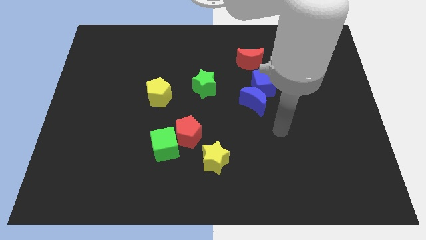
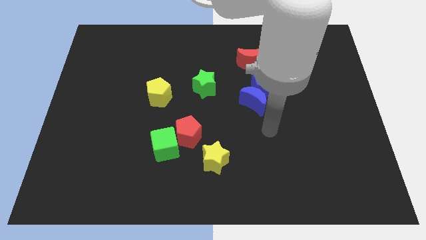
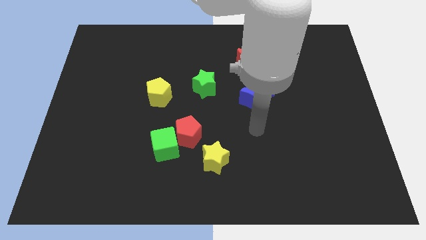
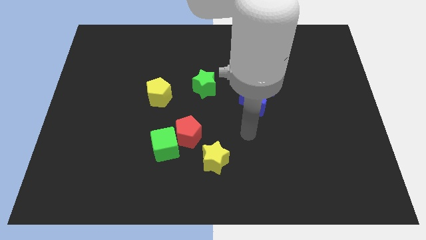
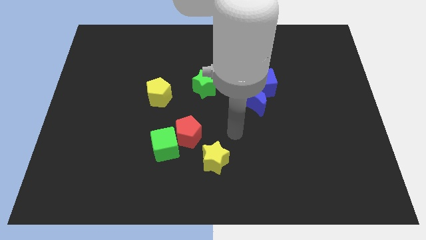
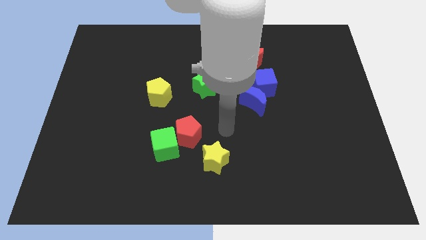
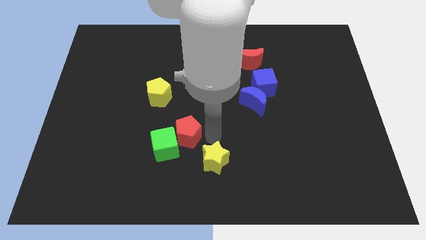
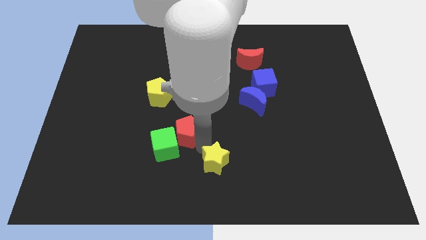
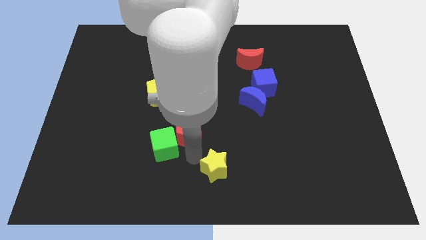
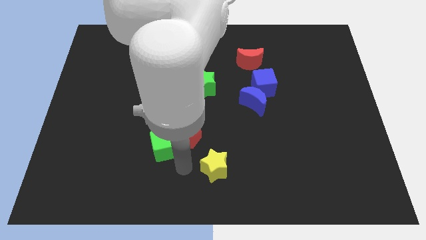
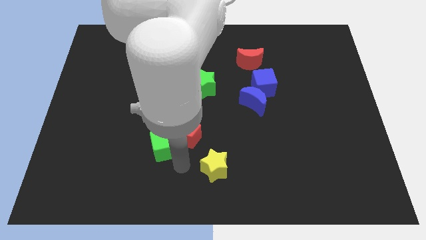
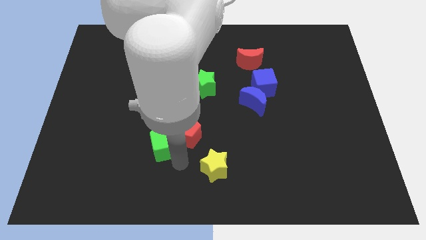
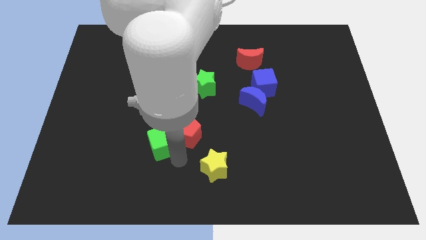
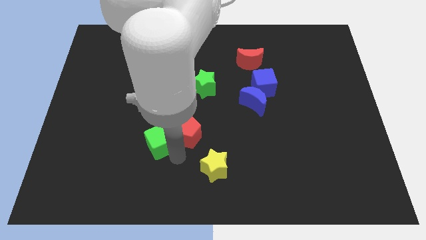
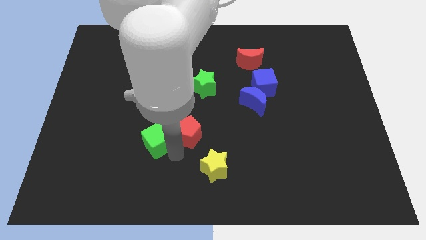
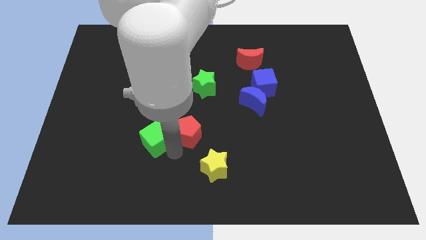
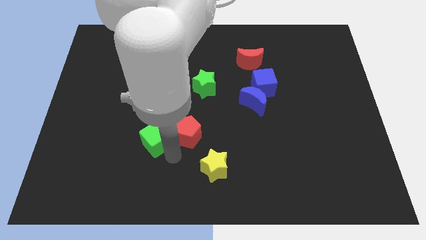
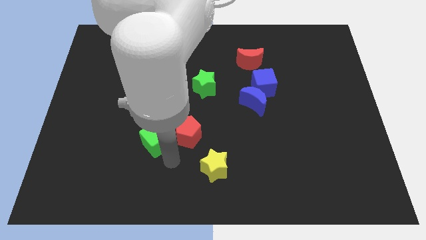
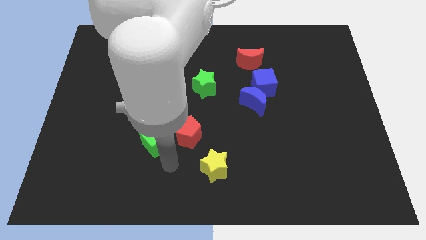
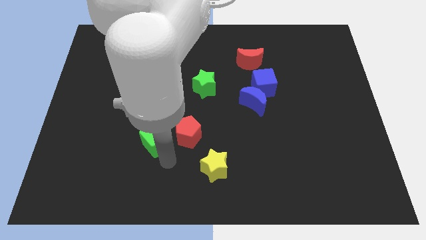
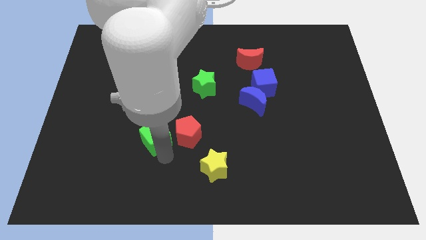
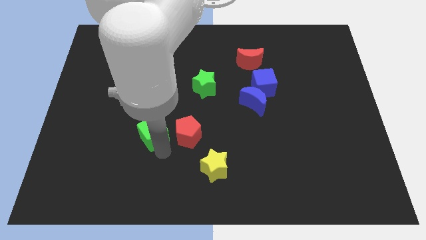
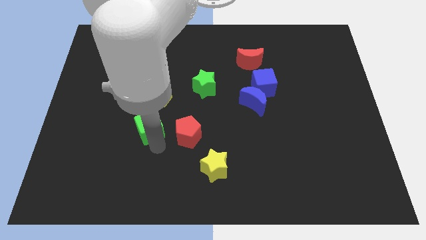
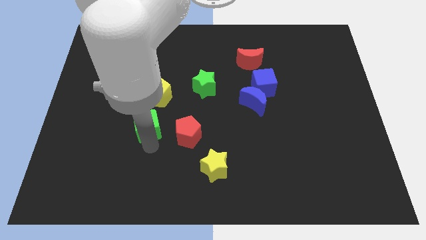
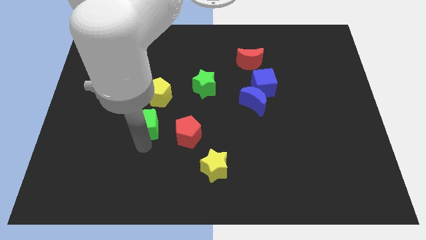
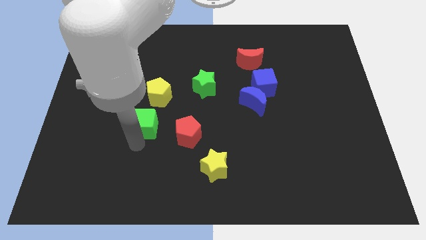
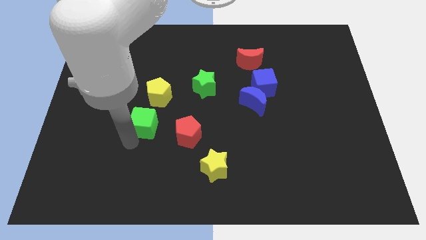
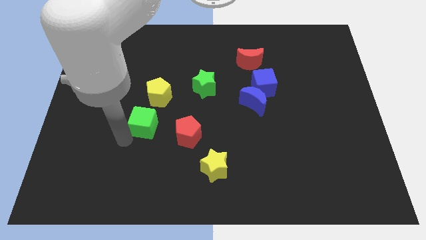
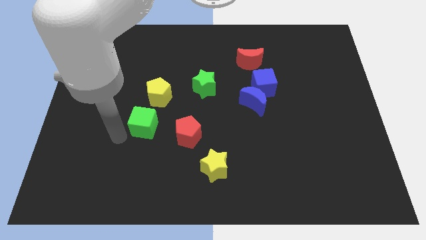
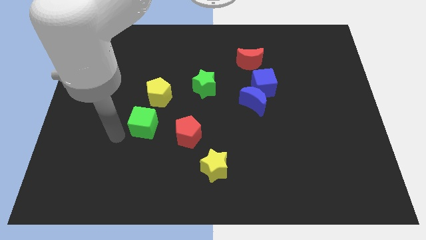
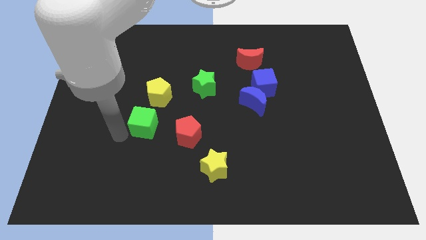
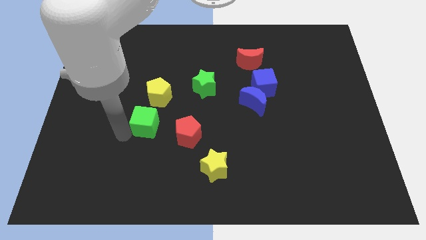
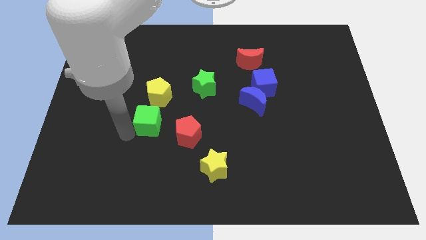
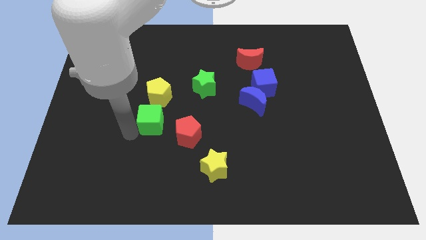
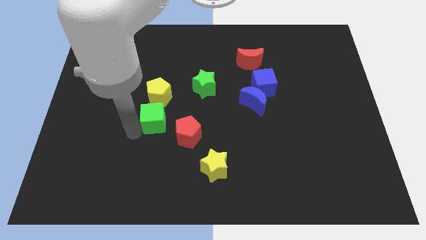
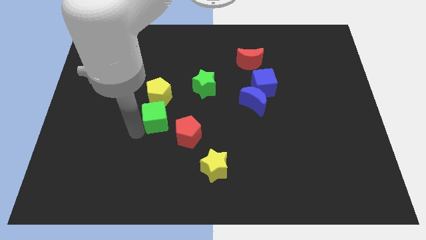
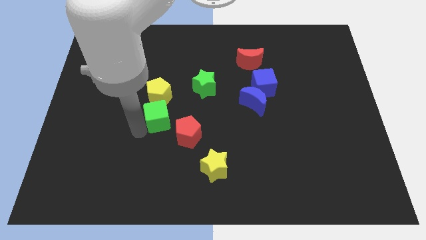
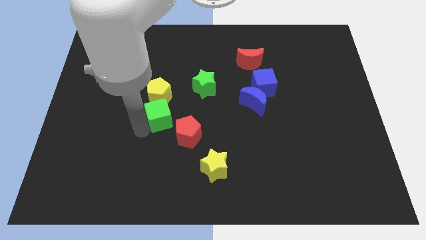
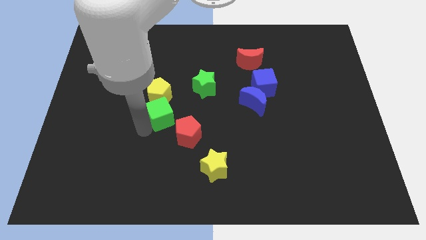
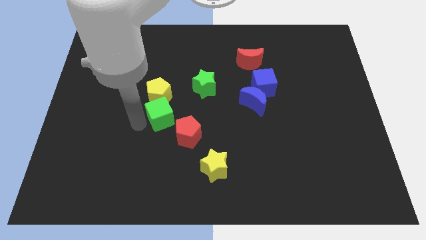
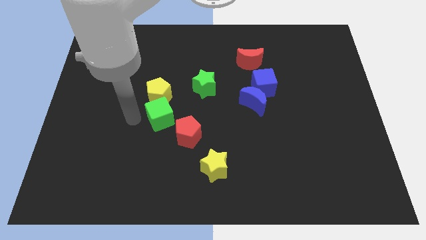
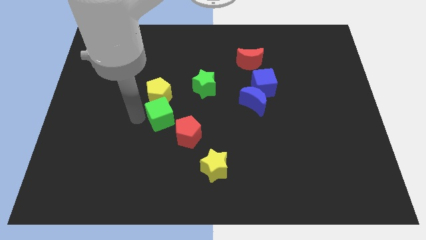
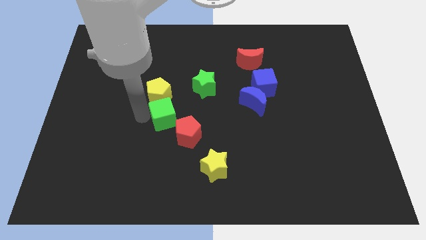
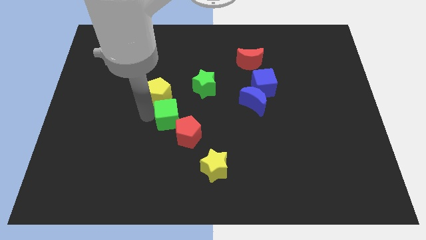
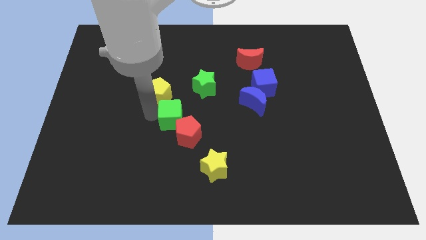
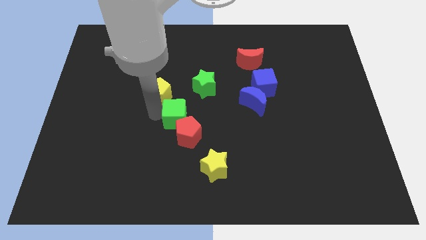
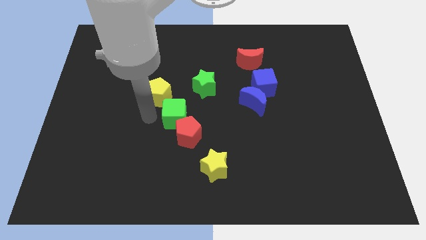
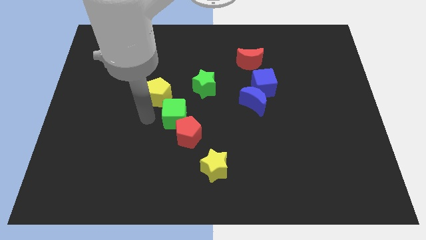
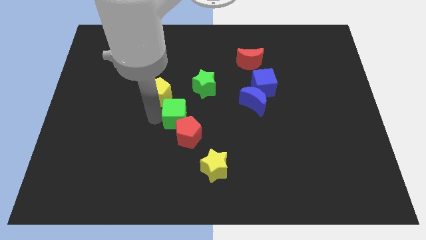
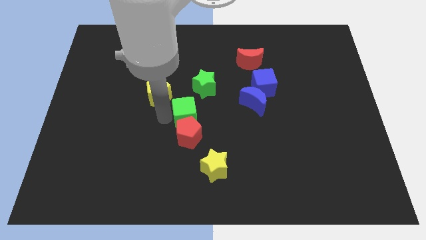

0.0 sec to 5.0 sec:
move the green cube to the top right side of the red pentagon

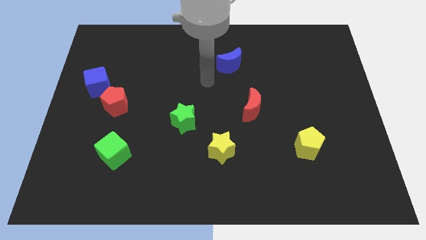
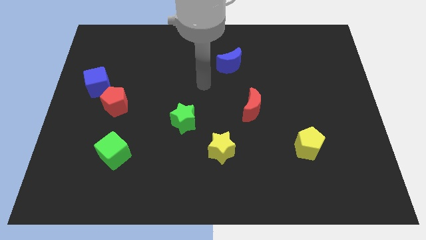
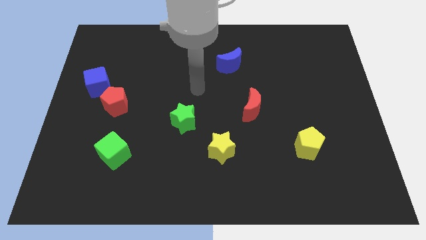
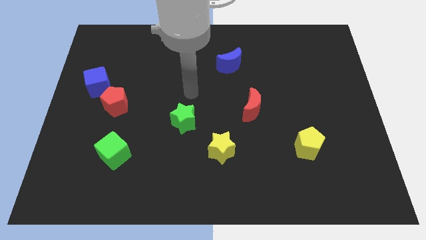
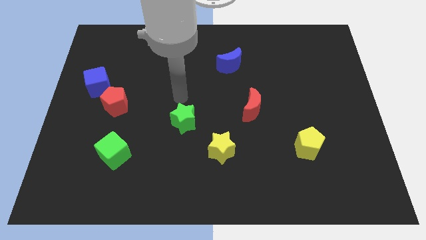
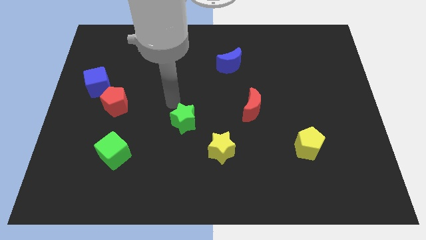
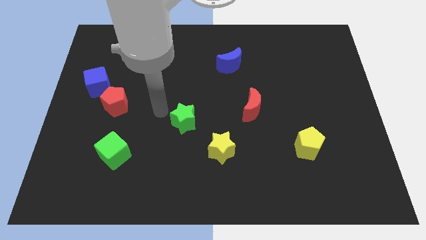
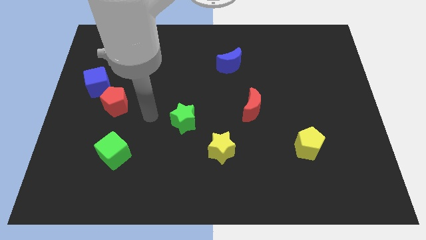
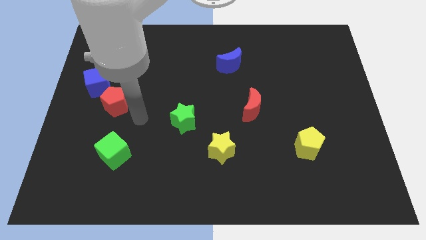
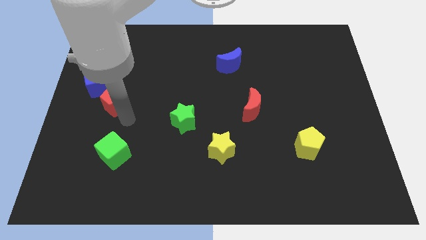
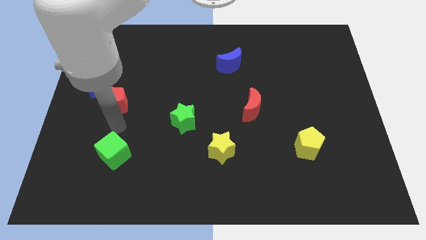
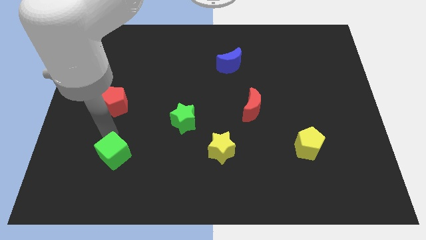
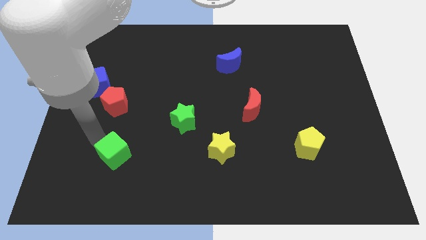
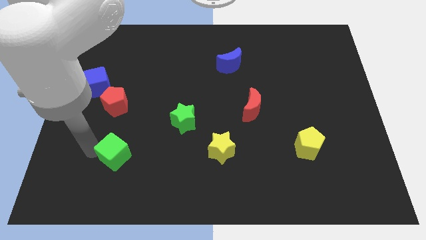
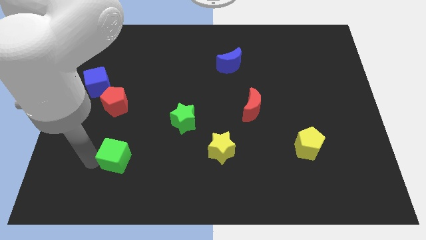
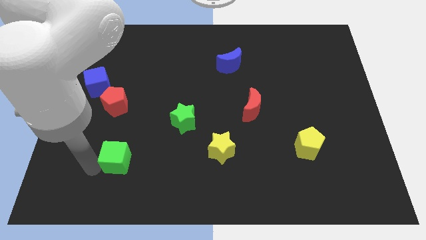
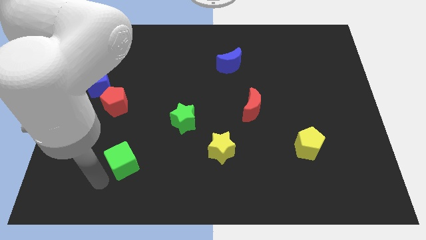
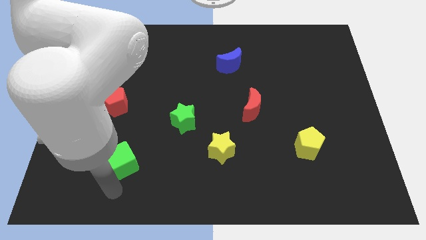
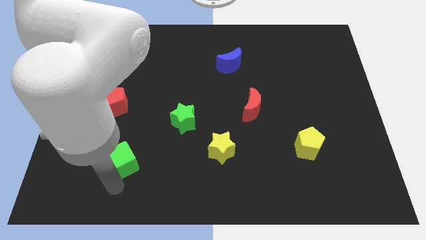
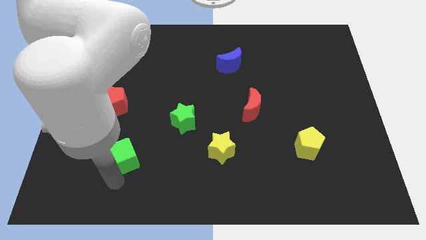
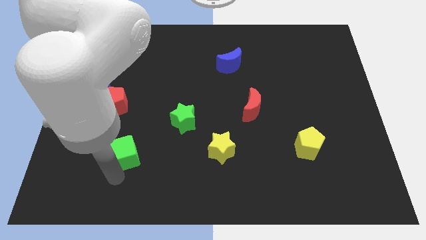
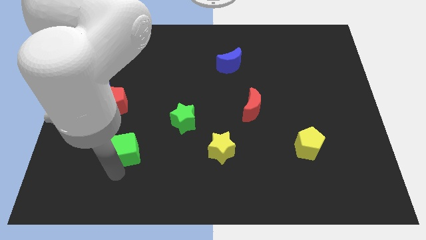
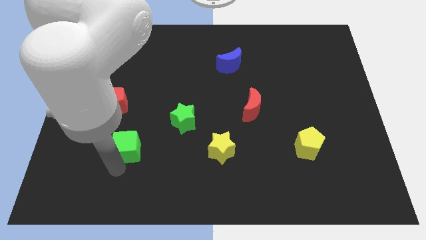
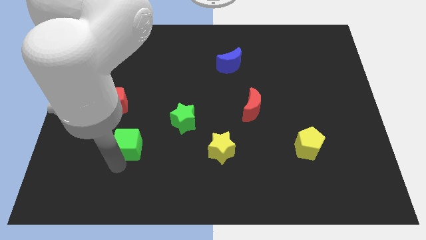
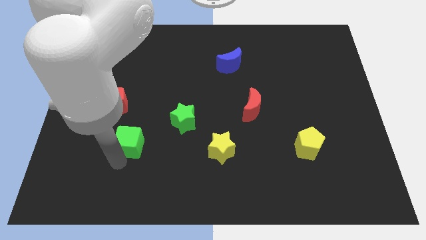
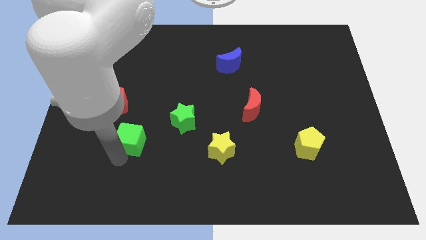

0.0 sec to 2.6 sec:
slide the green cube to the bottom right side of the red pentagon
